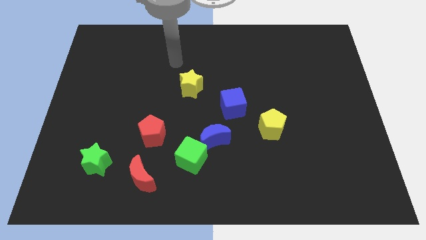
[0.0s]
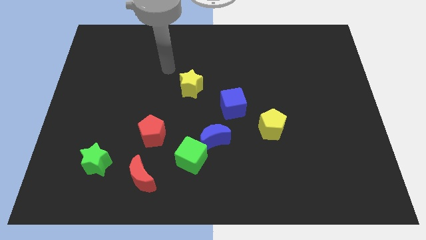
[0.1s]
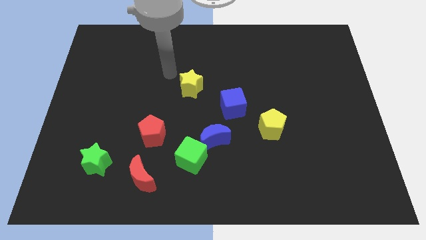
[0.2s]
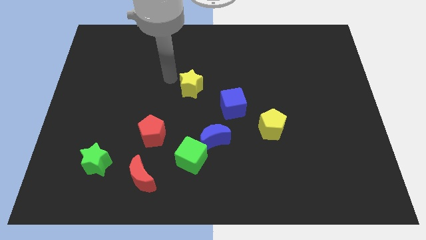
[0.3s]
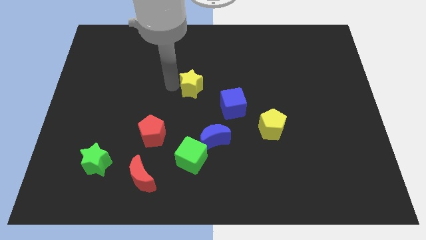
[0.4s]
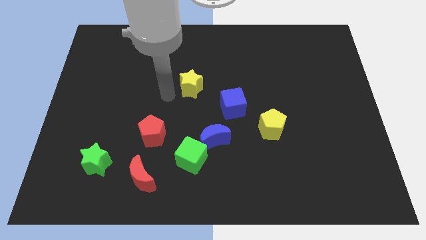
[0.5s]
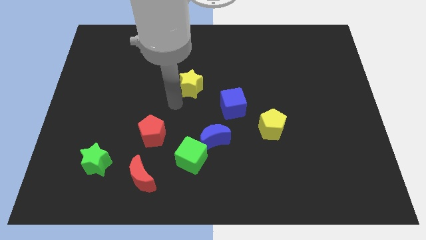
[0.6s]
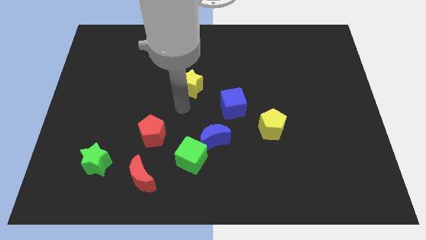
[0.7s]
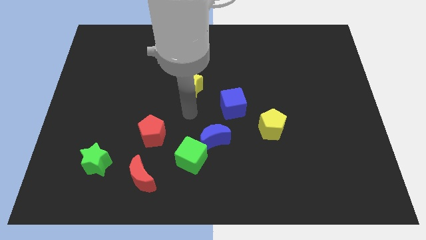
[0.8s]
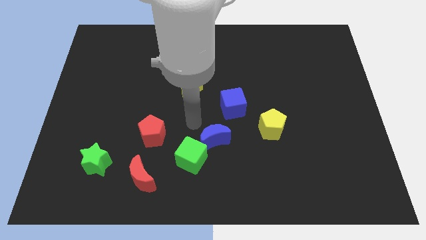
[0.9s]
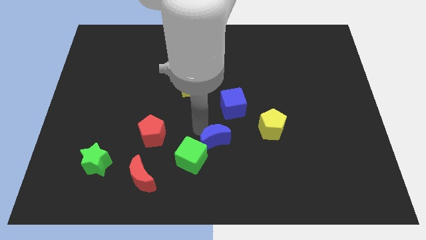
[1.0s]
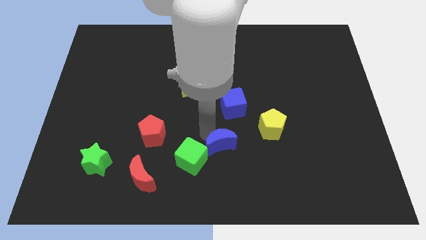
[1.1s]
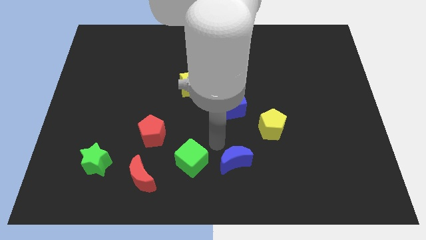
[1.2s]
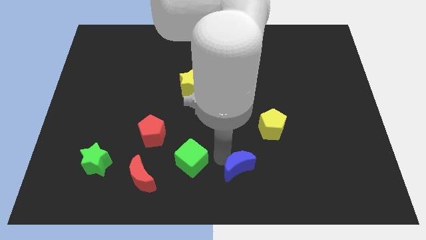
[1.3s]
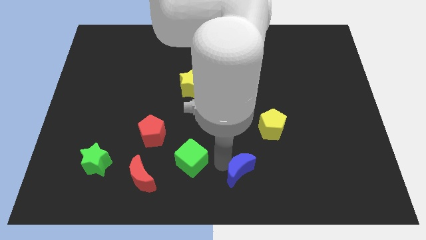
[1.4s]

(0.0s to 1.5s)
separate the green cube from the blue moon

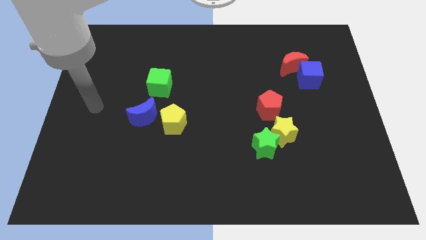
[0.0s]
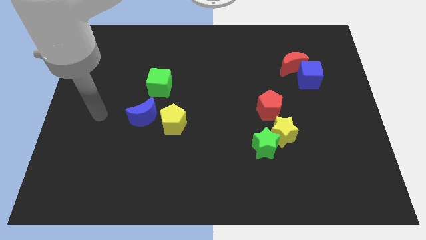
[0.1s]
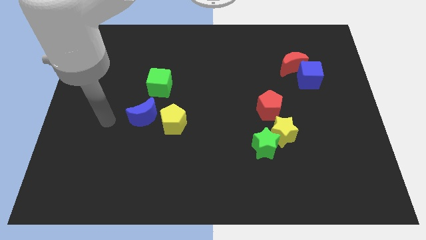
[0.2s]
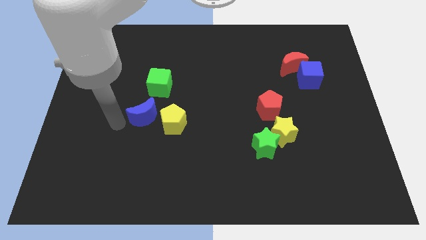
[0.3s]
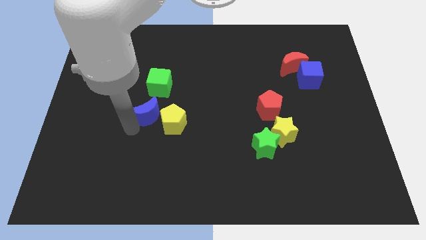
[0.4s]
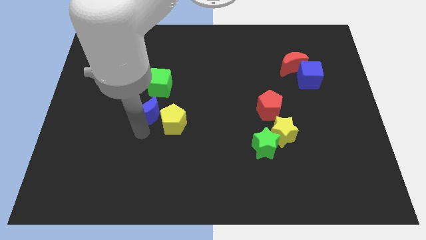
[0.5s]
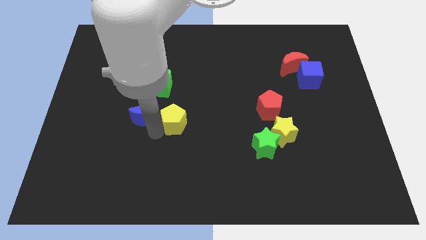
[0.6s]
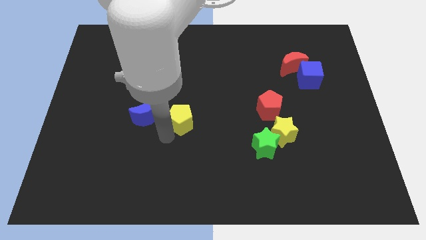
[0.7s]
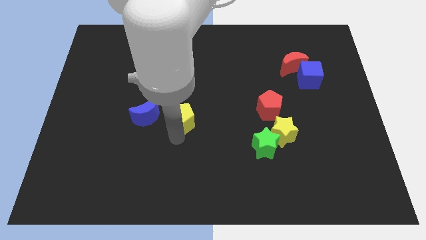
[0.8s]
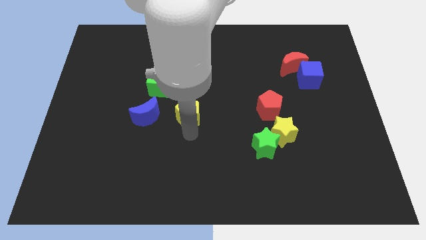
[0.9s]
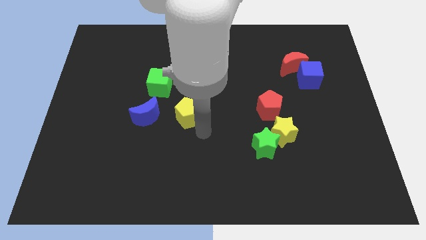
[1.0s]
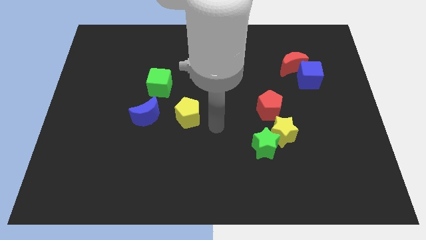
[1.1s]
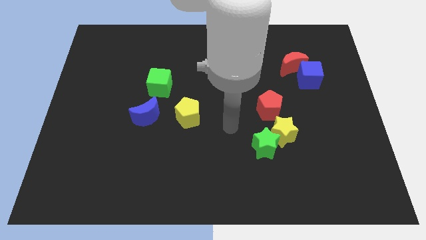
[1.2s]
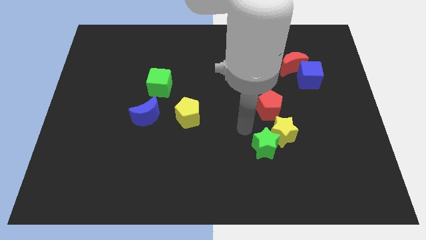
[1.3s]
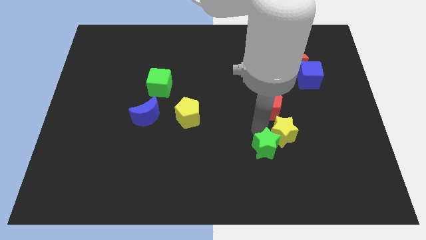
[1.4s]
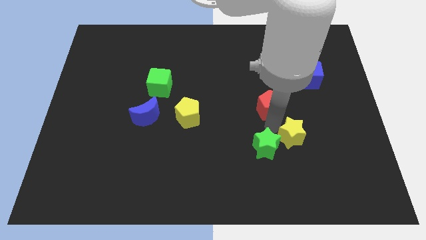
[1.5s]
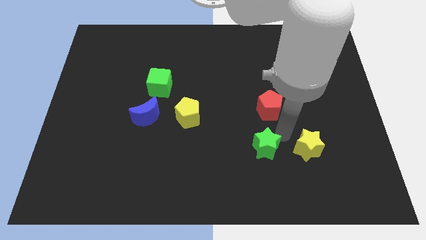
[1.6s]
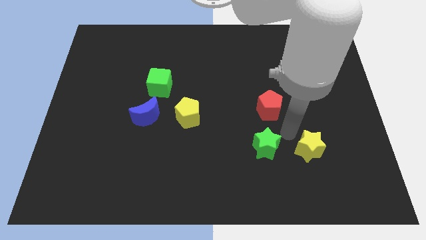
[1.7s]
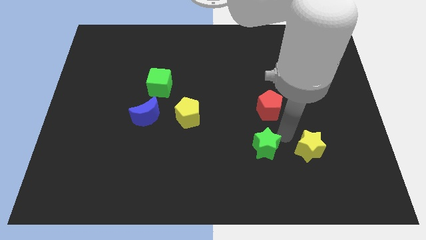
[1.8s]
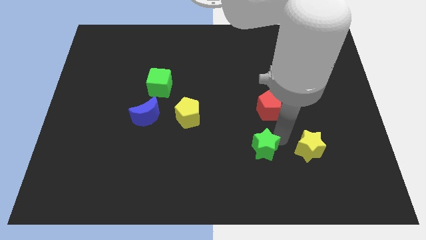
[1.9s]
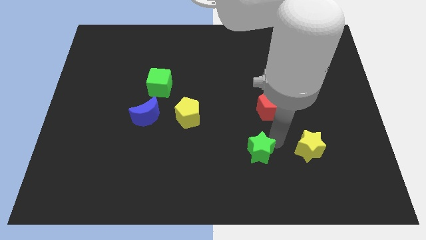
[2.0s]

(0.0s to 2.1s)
pull the green star apart from the yellow star

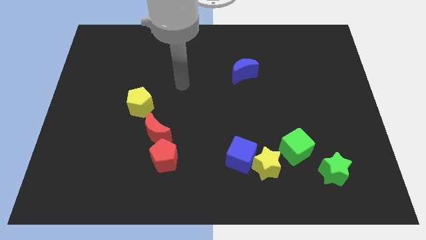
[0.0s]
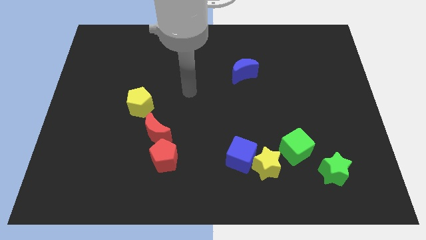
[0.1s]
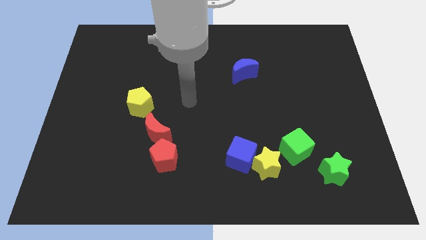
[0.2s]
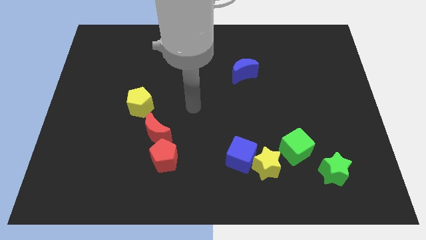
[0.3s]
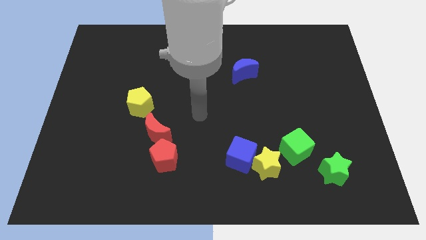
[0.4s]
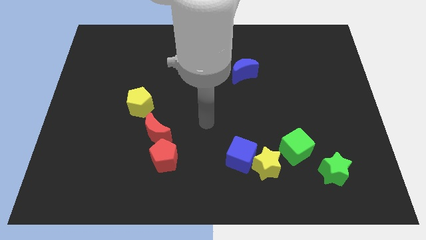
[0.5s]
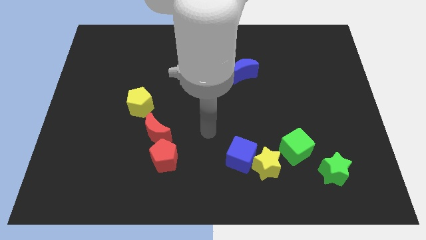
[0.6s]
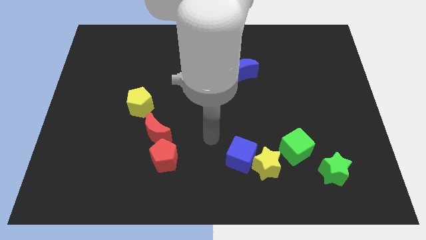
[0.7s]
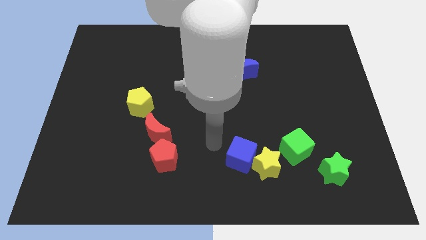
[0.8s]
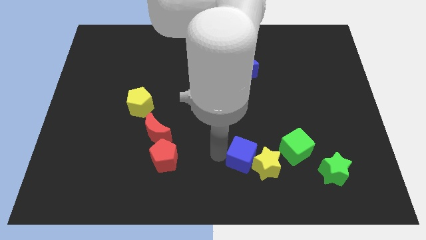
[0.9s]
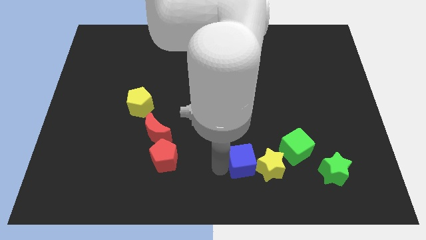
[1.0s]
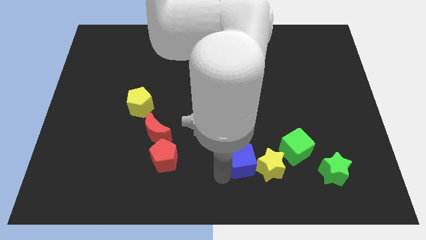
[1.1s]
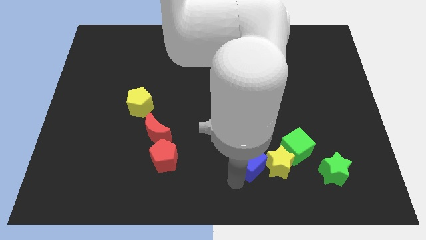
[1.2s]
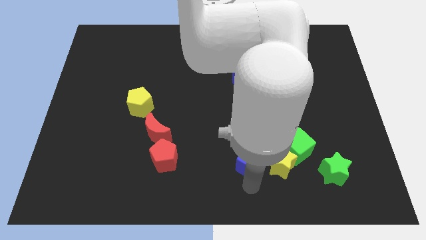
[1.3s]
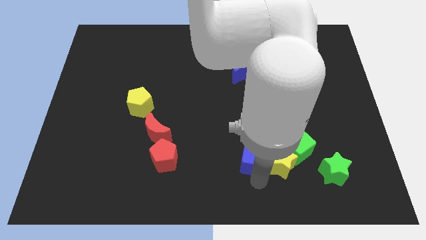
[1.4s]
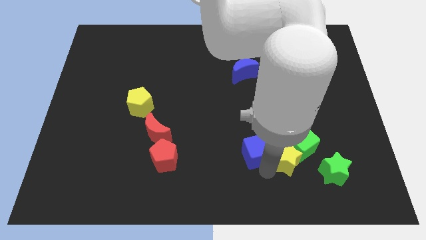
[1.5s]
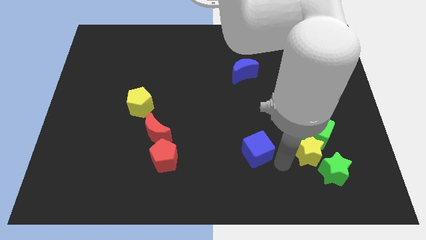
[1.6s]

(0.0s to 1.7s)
move the blue cube away from the yellow star

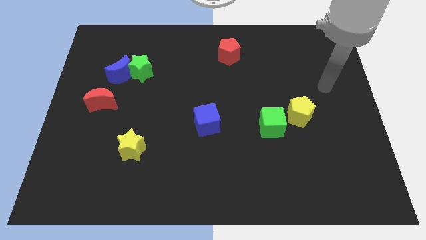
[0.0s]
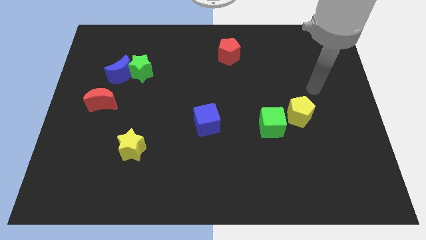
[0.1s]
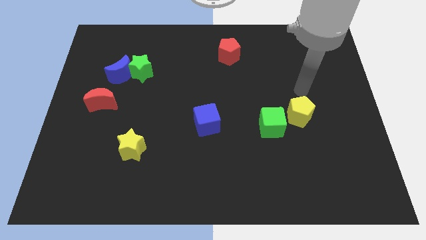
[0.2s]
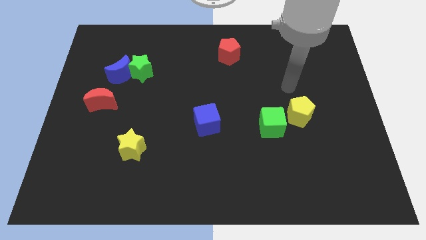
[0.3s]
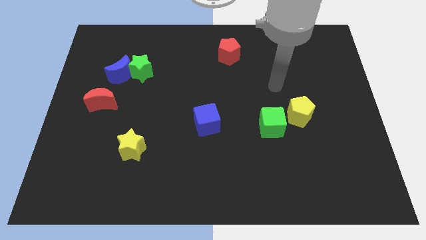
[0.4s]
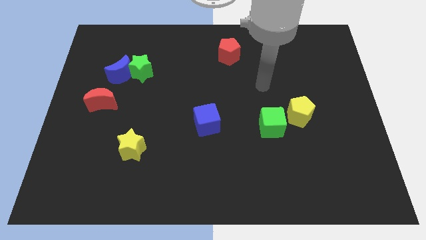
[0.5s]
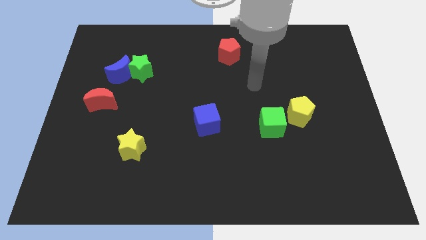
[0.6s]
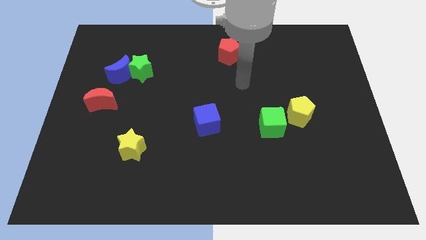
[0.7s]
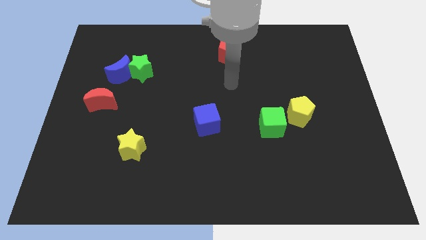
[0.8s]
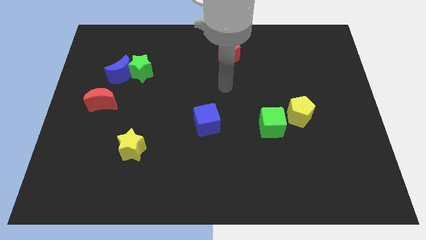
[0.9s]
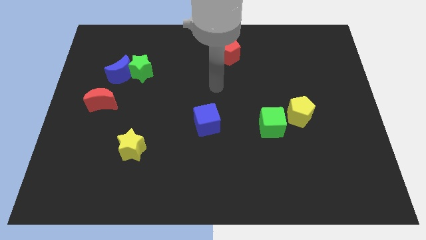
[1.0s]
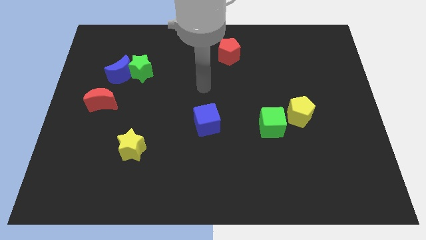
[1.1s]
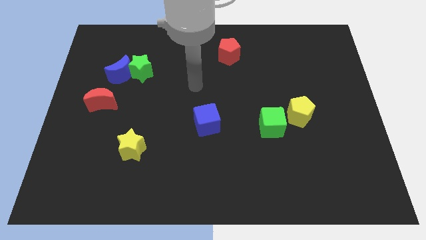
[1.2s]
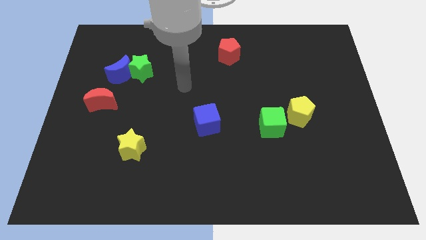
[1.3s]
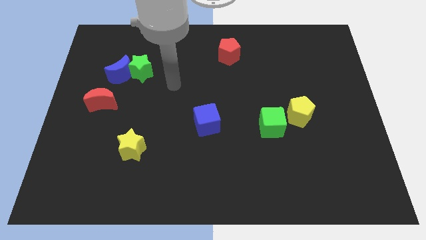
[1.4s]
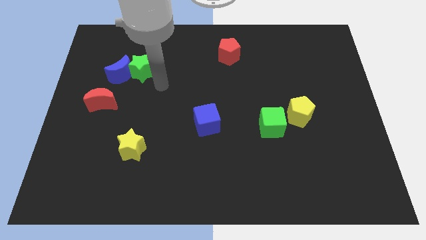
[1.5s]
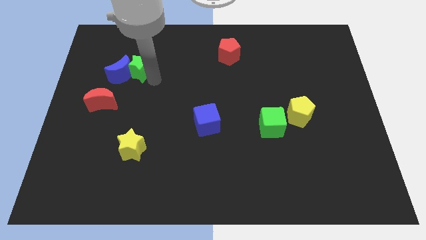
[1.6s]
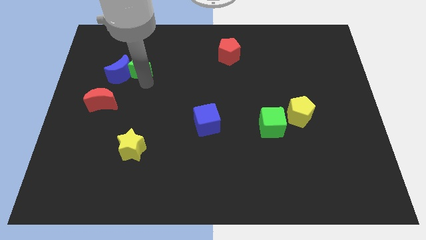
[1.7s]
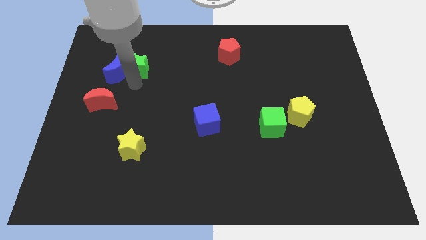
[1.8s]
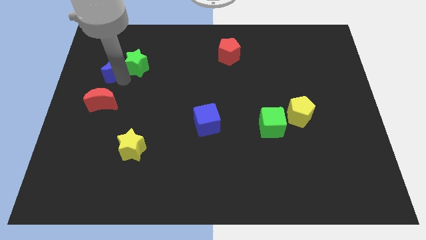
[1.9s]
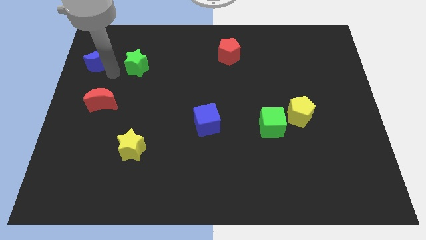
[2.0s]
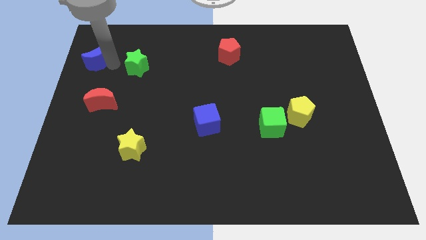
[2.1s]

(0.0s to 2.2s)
pull the green star apart from the blue moon

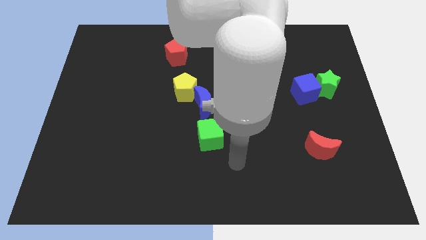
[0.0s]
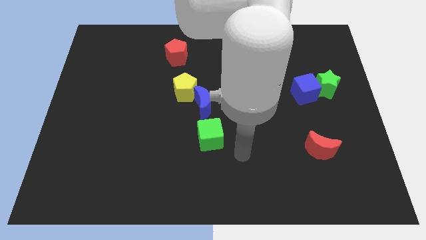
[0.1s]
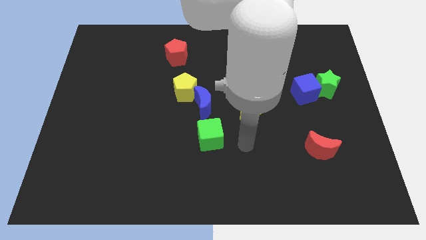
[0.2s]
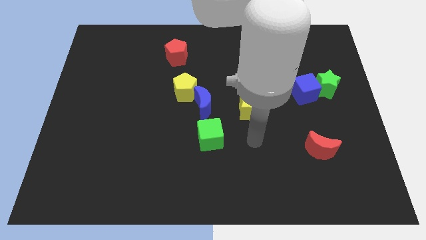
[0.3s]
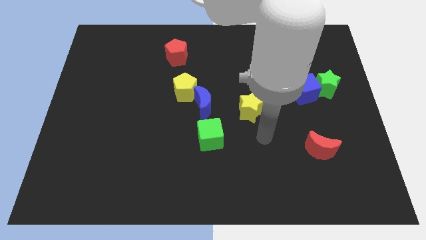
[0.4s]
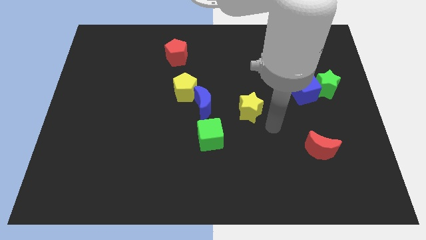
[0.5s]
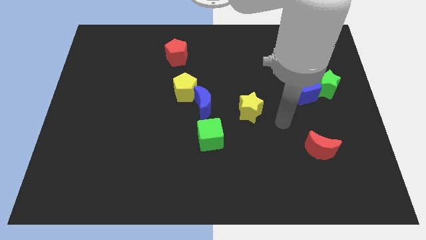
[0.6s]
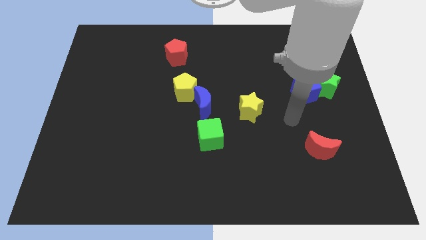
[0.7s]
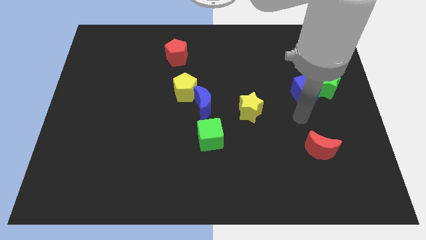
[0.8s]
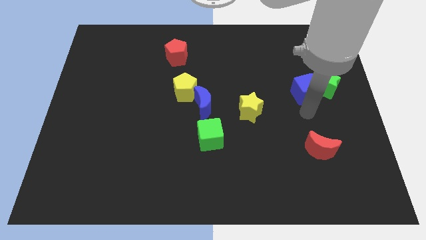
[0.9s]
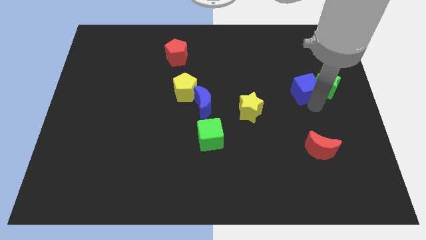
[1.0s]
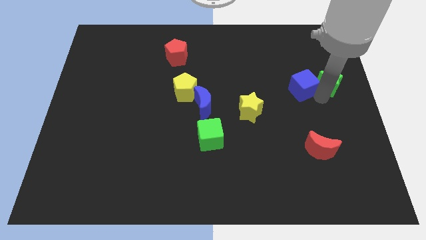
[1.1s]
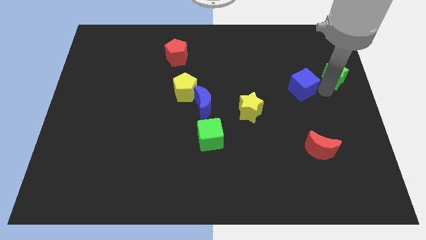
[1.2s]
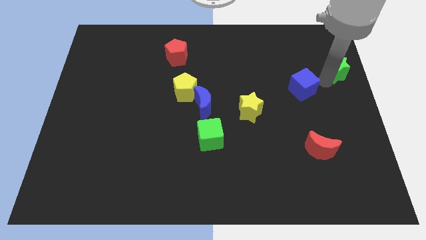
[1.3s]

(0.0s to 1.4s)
separate the blue cube from the green star

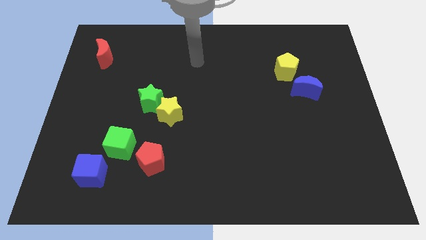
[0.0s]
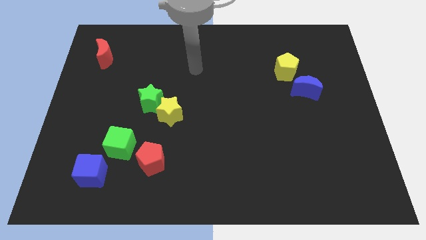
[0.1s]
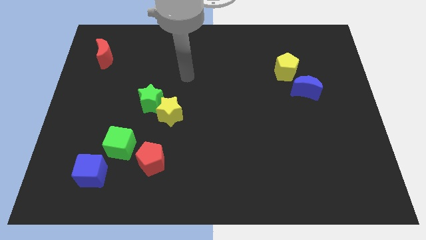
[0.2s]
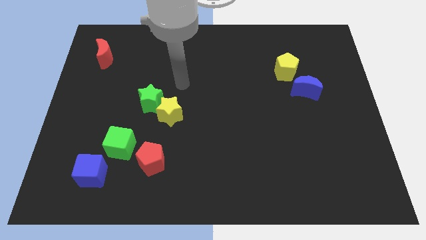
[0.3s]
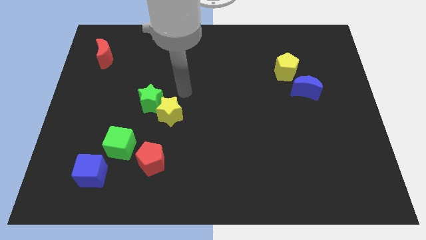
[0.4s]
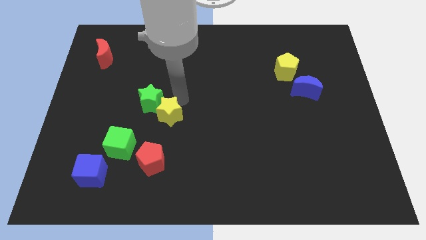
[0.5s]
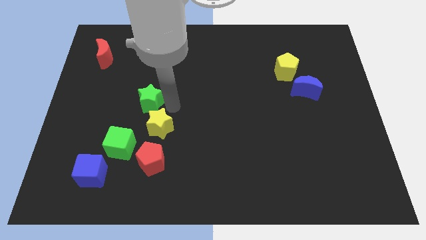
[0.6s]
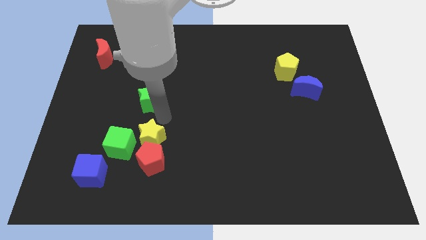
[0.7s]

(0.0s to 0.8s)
move the green star away from the yellow star
